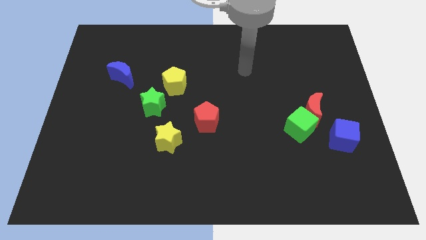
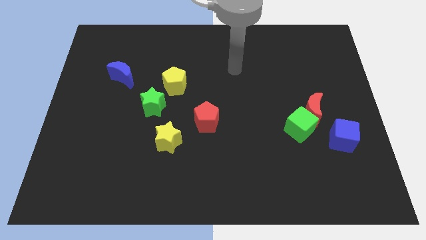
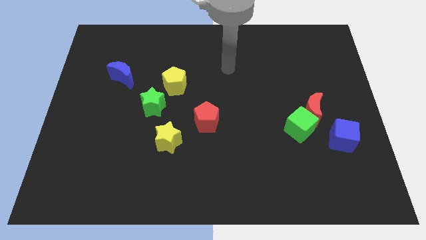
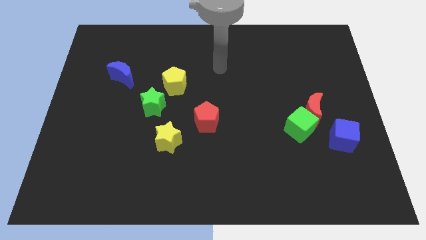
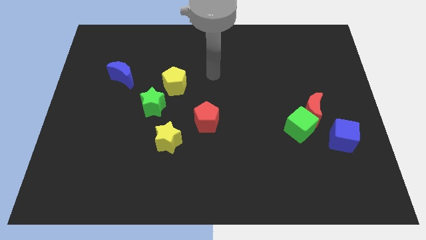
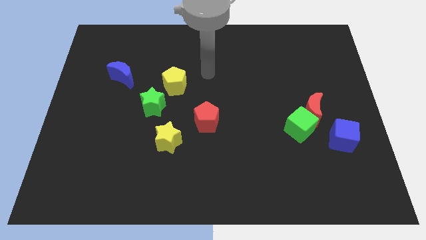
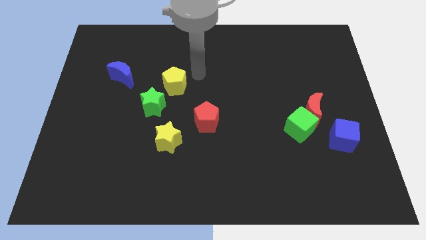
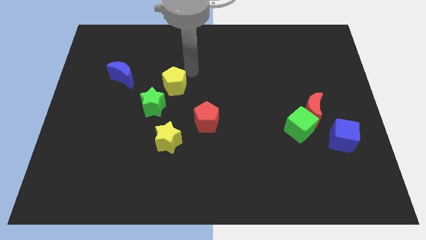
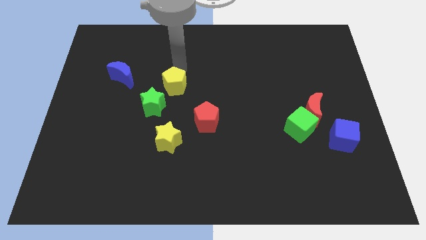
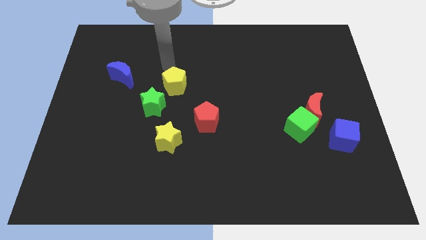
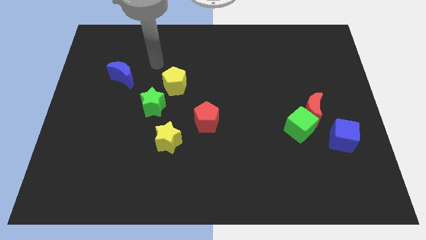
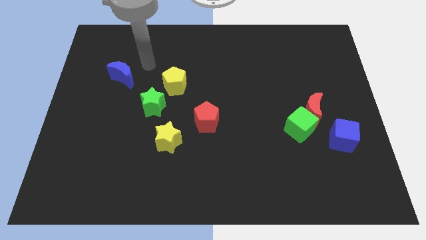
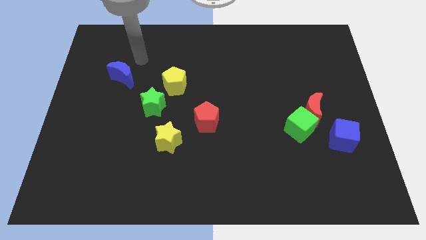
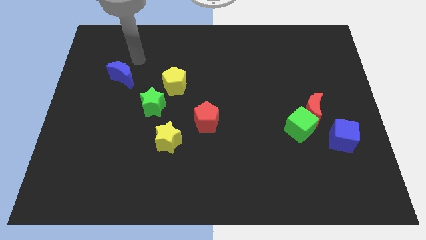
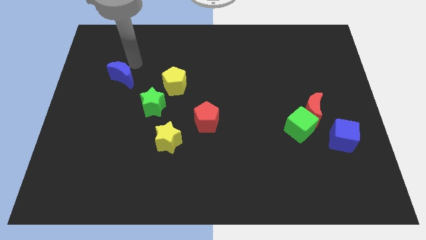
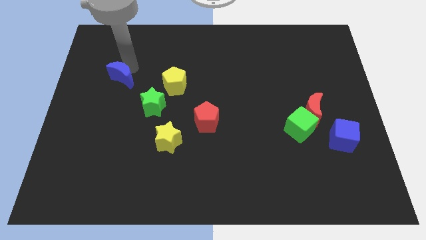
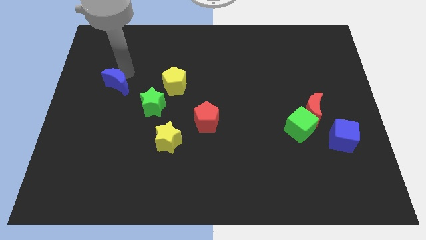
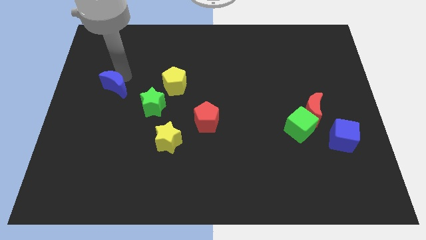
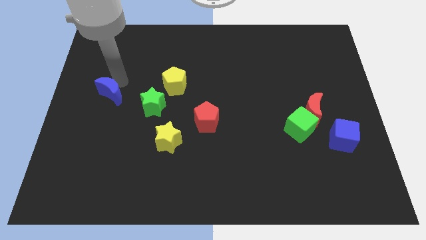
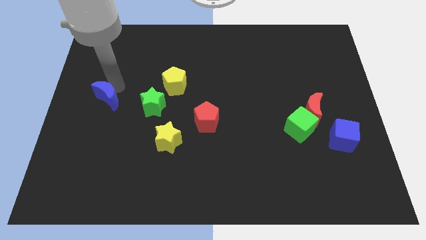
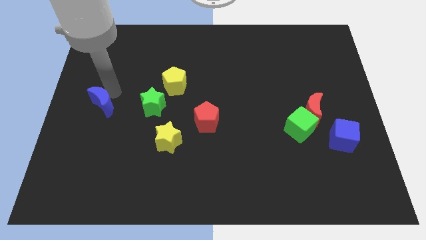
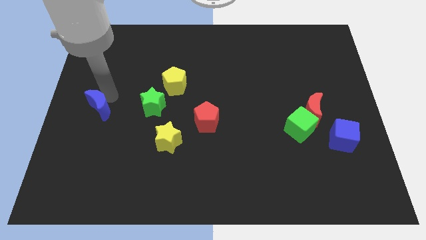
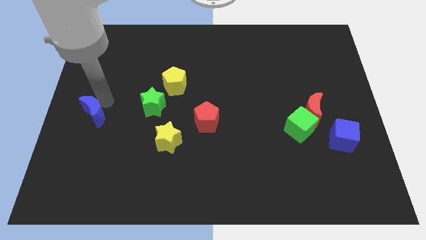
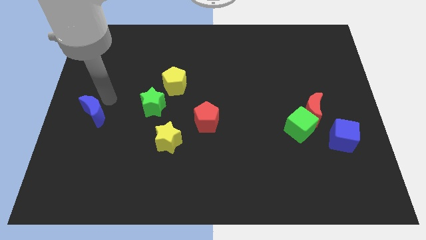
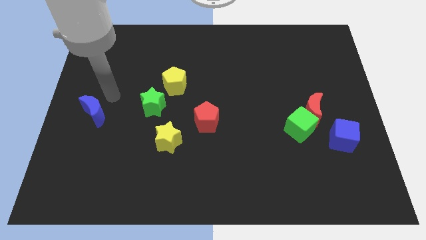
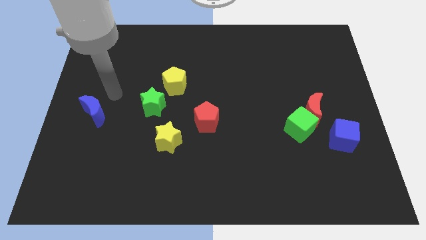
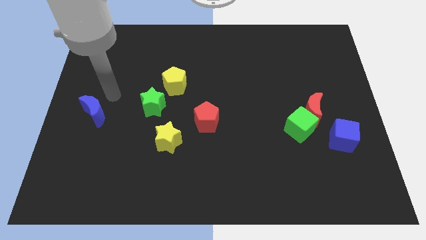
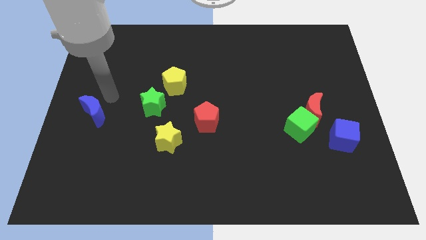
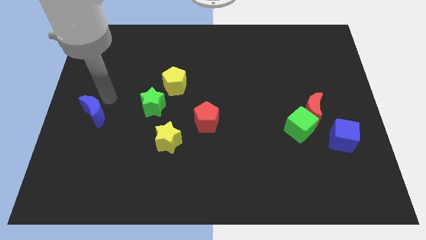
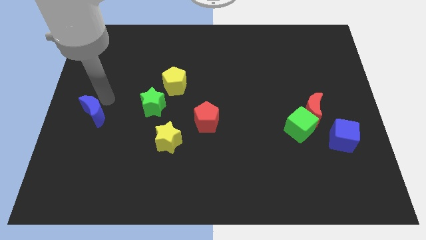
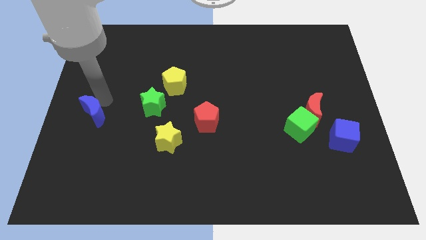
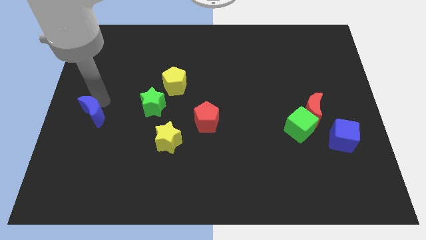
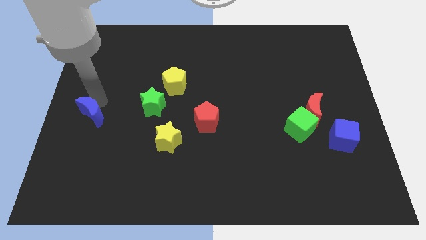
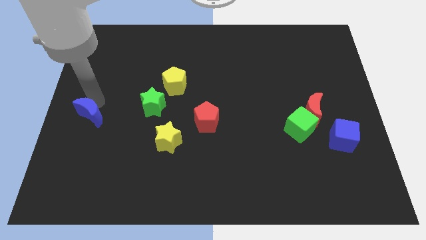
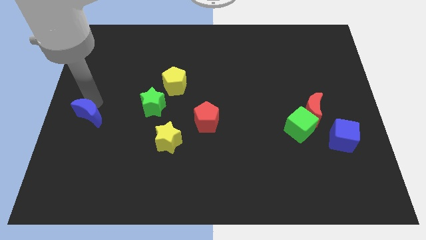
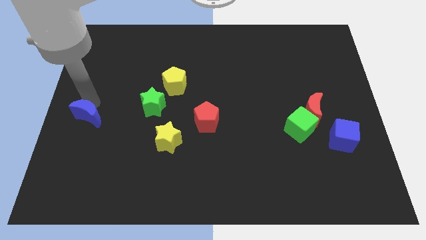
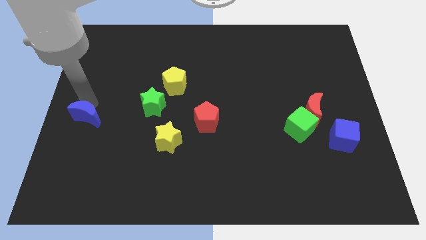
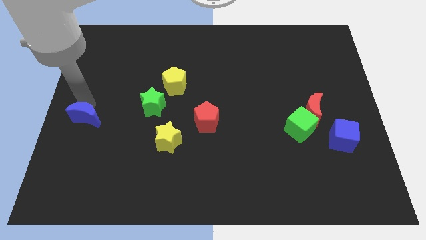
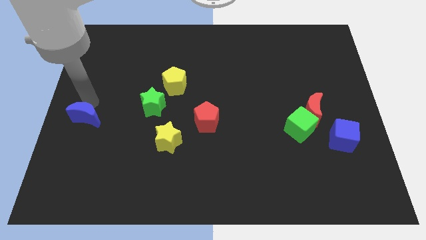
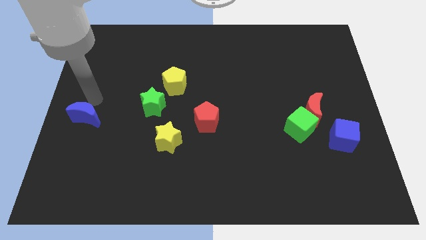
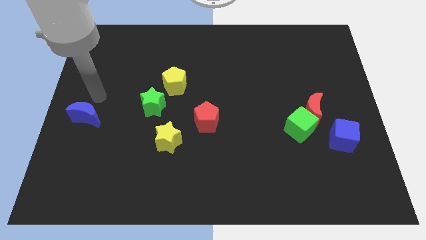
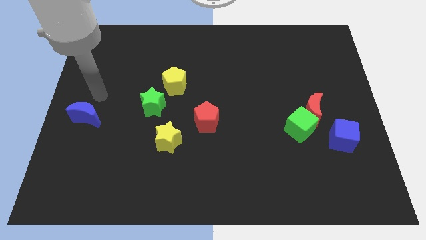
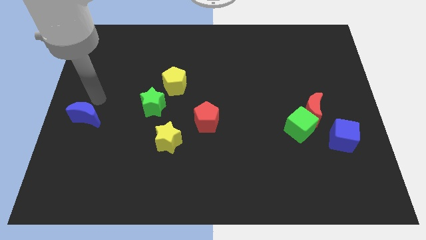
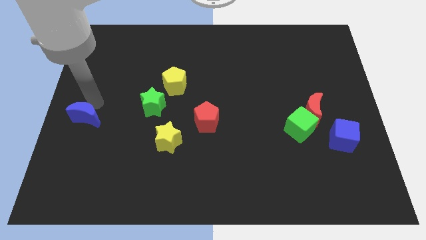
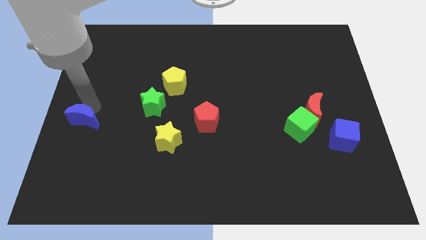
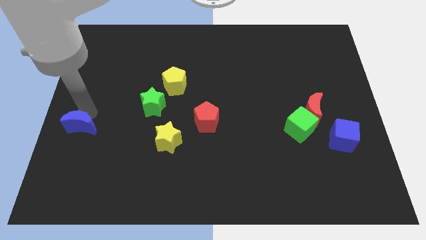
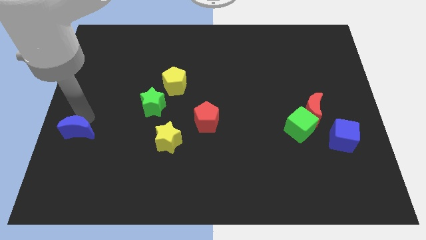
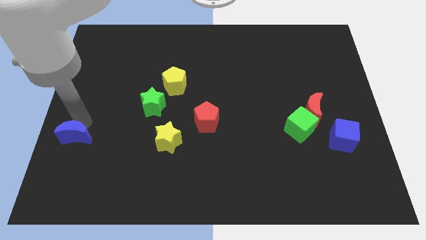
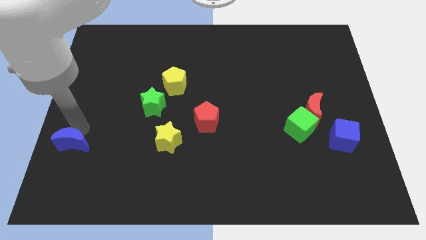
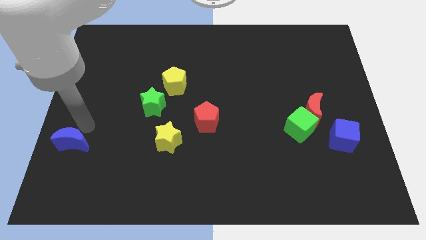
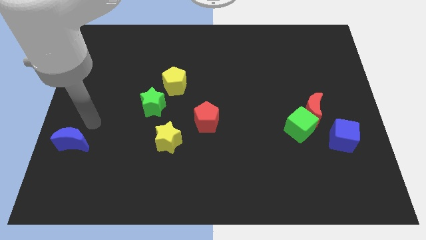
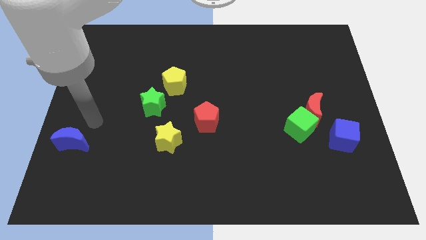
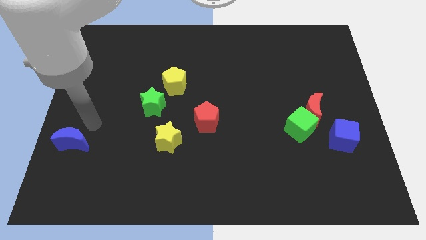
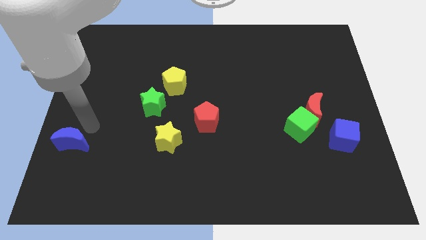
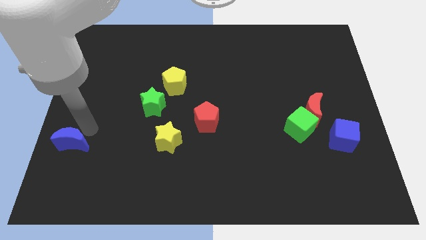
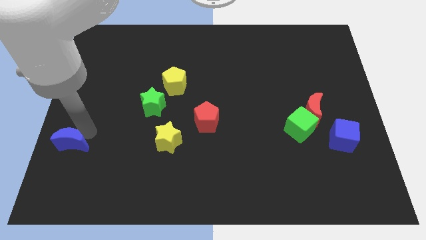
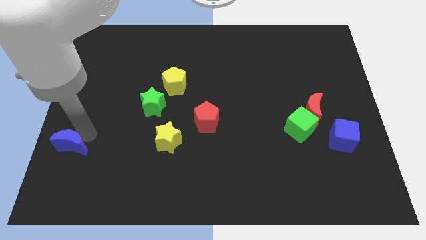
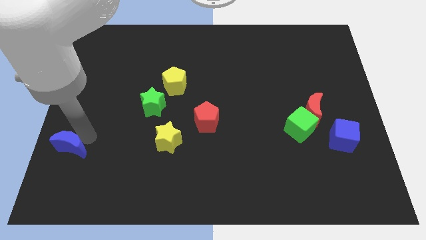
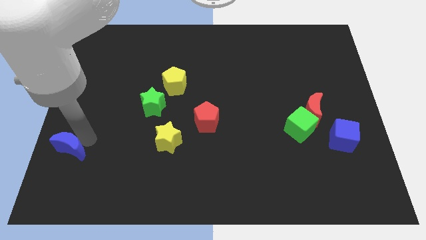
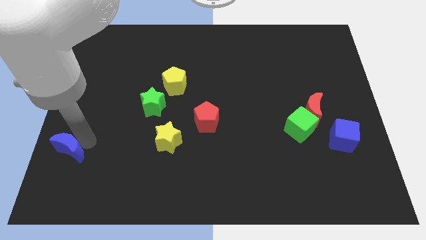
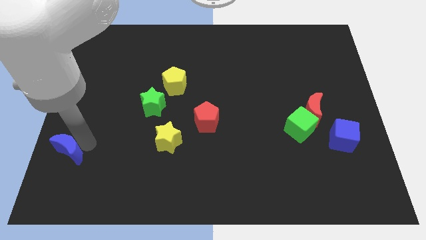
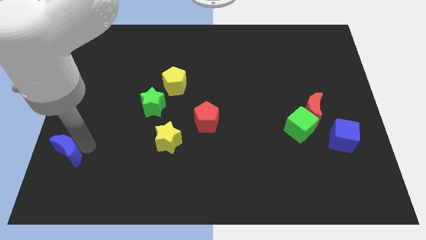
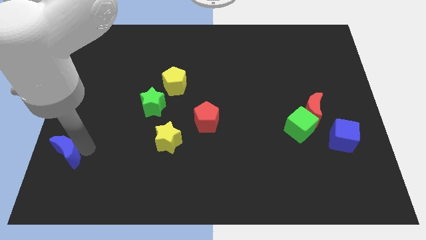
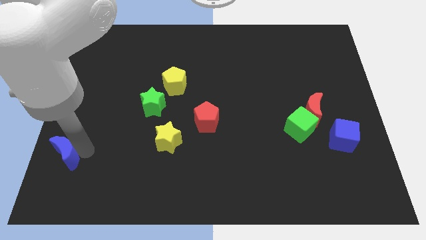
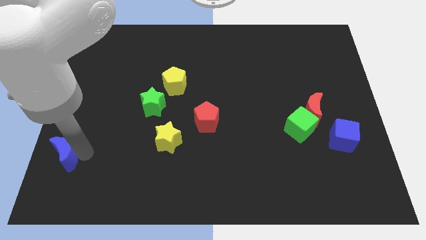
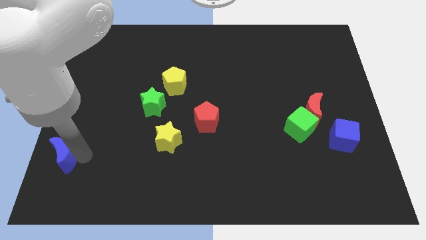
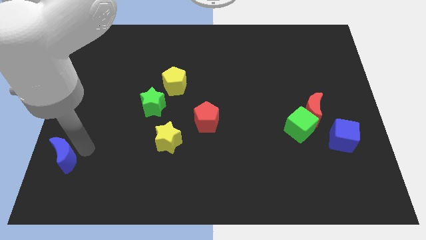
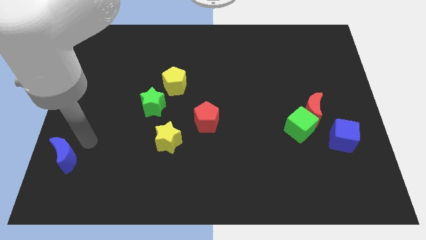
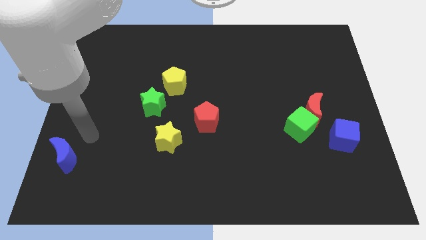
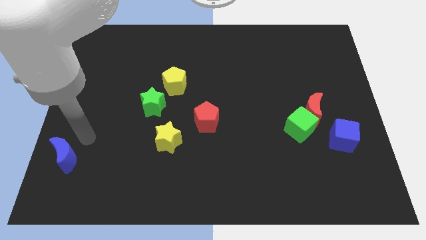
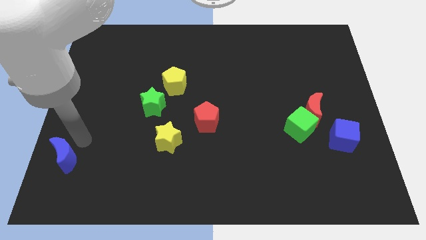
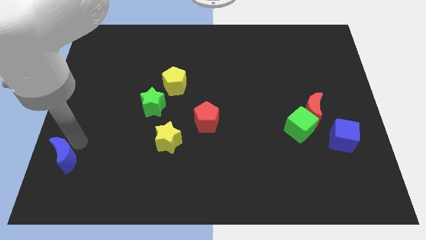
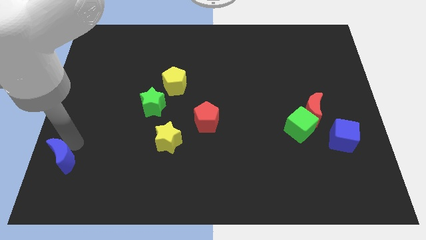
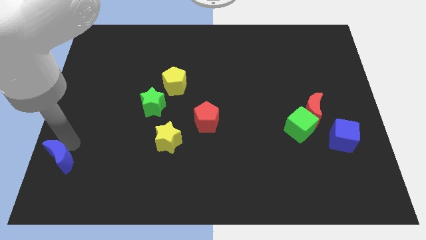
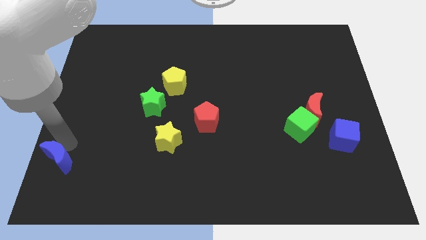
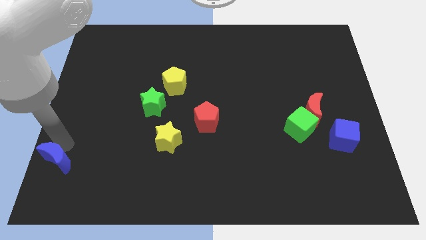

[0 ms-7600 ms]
slide the blue moon to the bottom left corner
